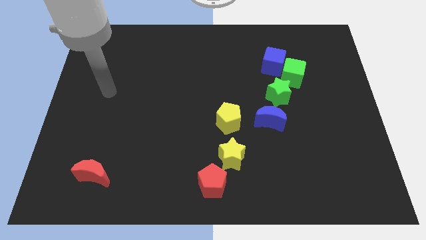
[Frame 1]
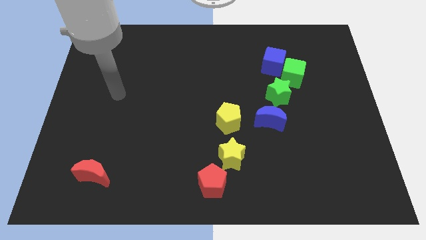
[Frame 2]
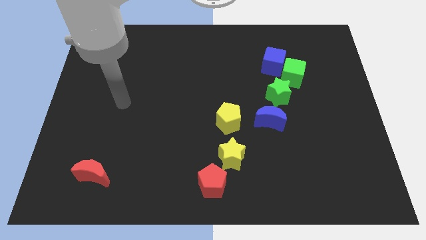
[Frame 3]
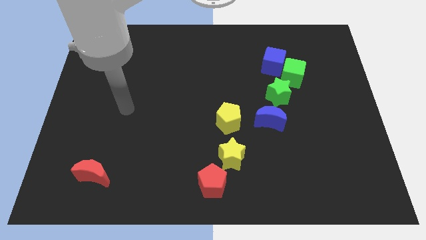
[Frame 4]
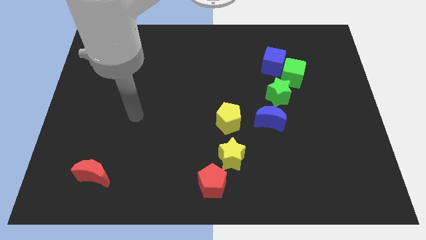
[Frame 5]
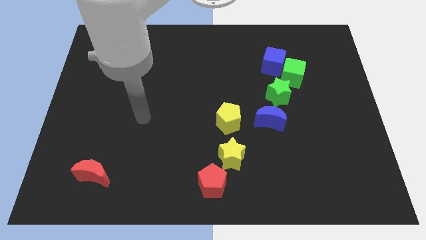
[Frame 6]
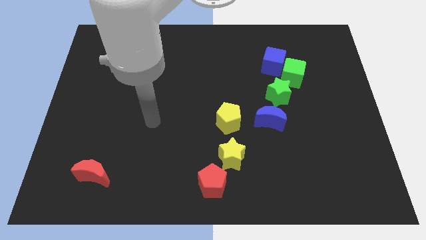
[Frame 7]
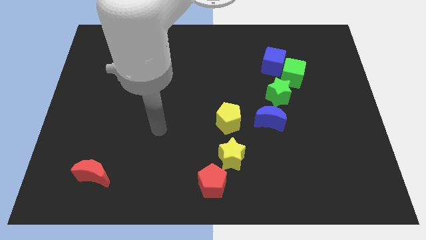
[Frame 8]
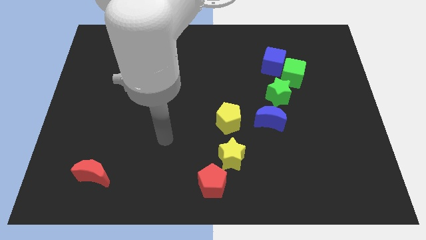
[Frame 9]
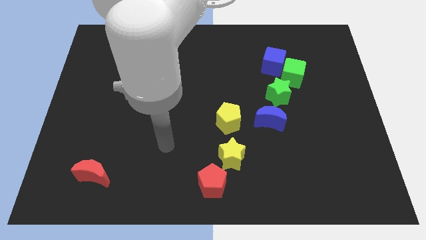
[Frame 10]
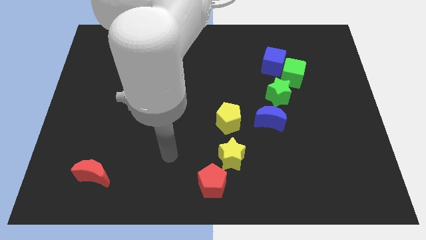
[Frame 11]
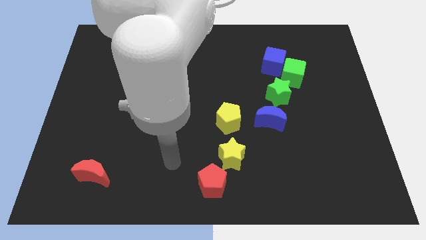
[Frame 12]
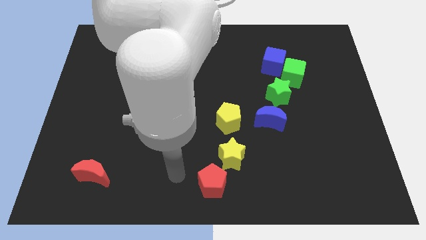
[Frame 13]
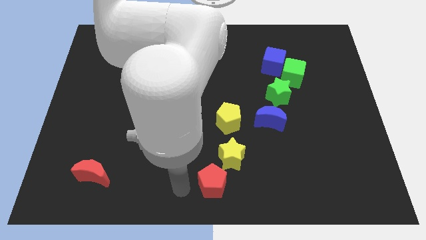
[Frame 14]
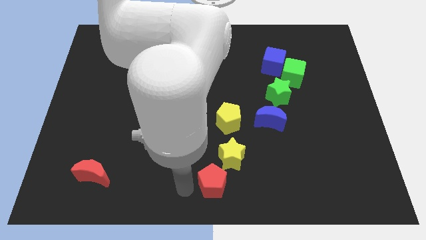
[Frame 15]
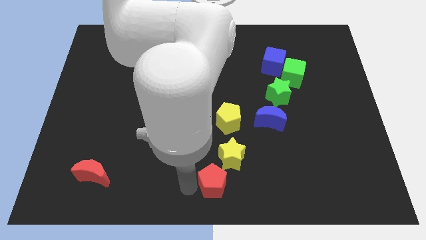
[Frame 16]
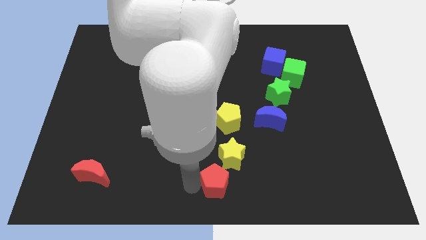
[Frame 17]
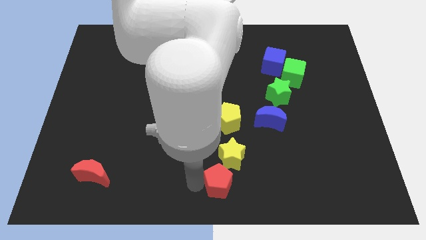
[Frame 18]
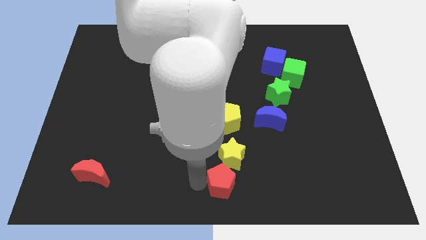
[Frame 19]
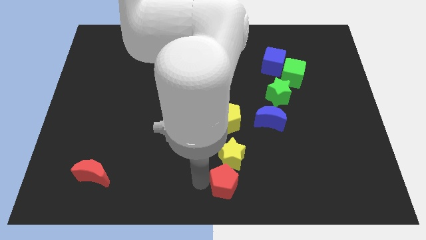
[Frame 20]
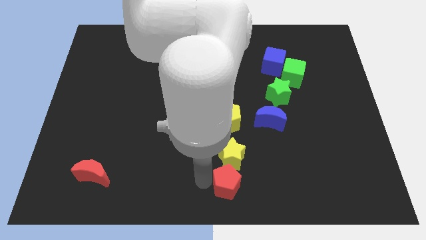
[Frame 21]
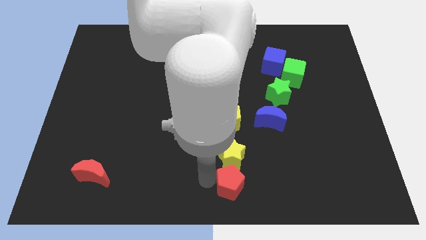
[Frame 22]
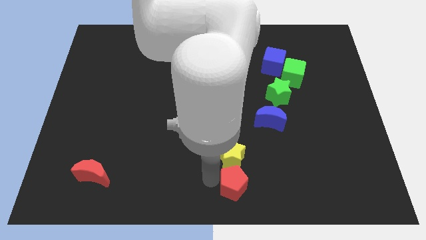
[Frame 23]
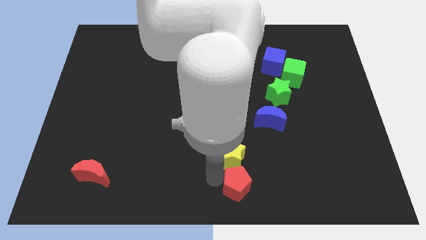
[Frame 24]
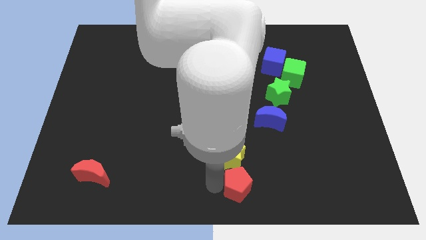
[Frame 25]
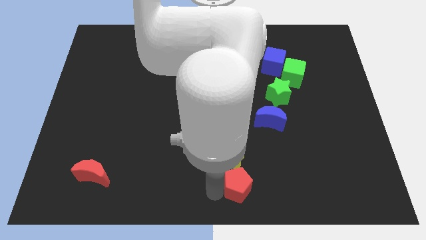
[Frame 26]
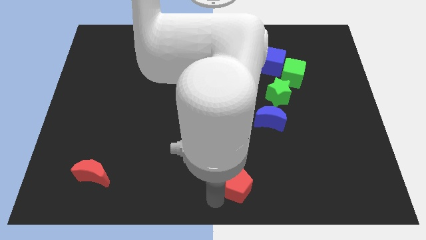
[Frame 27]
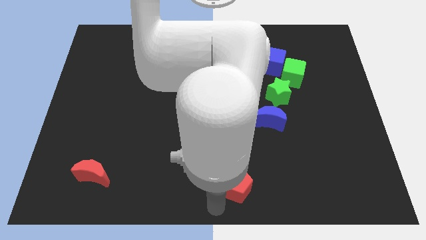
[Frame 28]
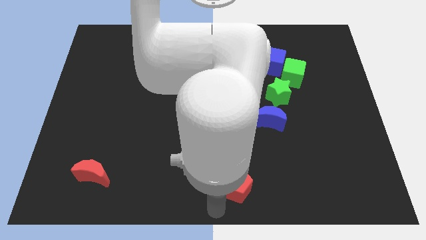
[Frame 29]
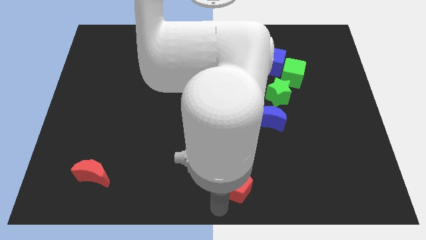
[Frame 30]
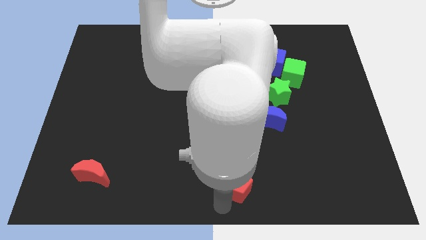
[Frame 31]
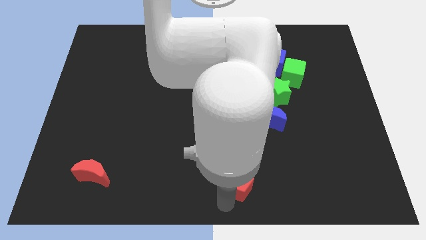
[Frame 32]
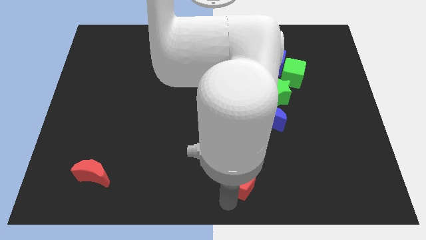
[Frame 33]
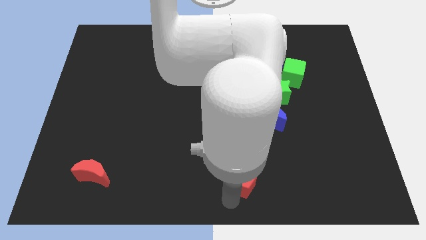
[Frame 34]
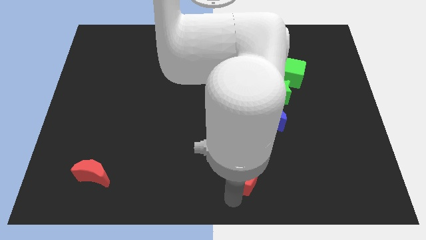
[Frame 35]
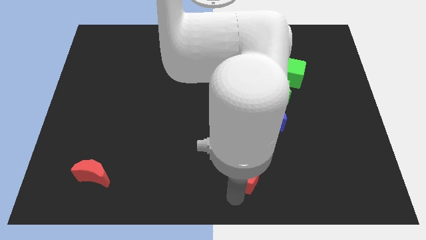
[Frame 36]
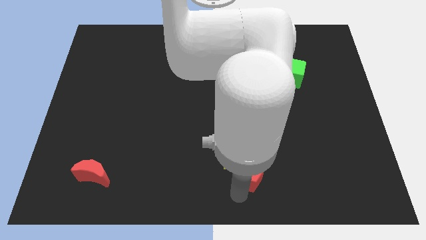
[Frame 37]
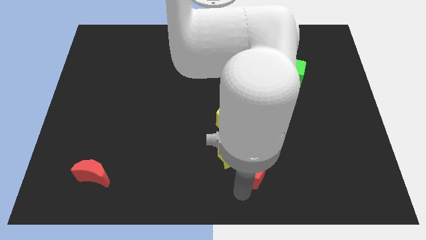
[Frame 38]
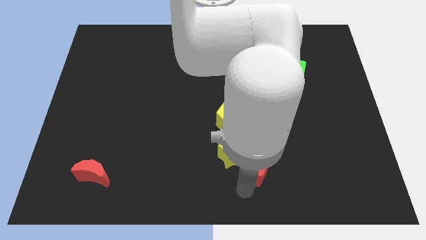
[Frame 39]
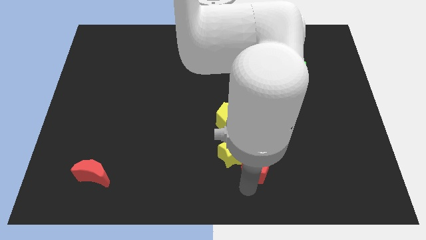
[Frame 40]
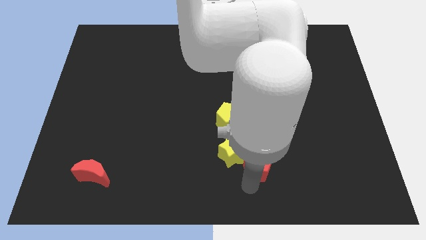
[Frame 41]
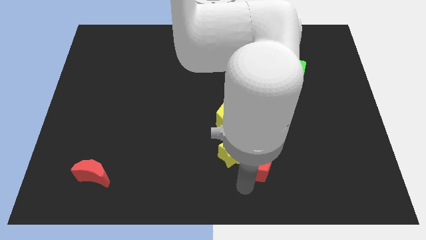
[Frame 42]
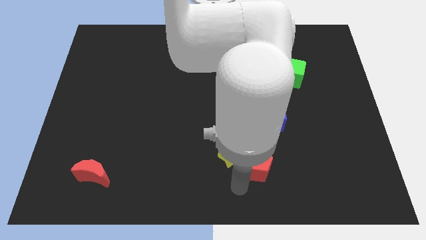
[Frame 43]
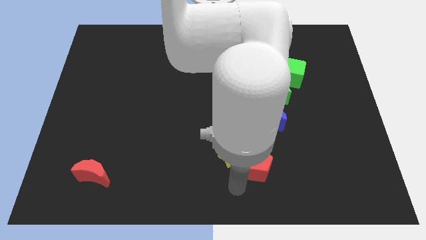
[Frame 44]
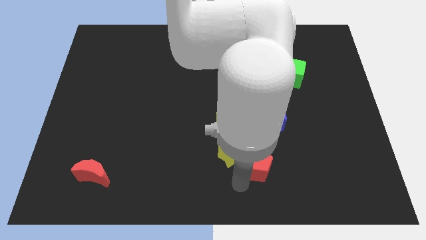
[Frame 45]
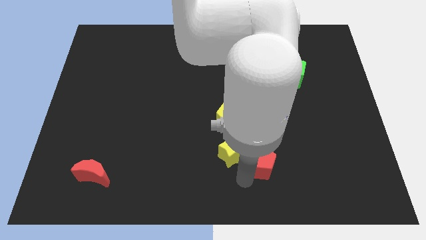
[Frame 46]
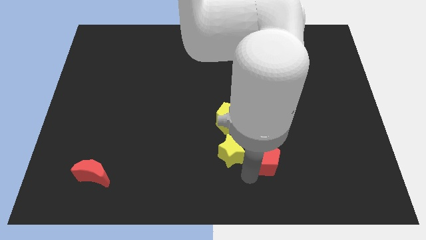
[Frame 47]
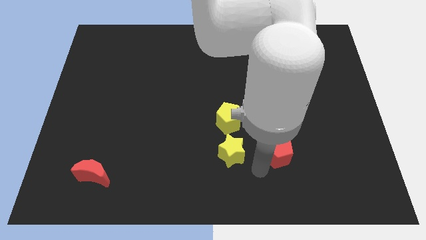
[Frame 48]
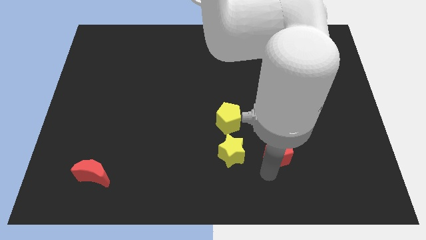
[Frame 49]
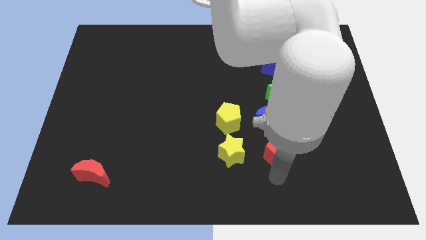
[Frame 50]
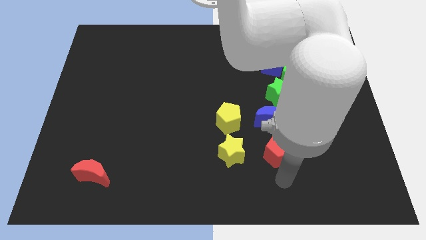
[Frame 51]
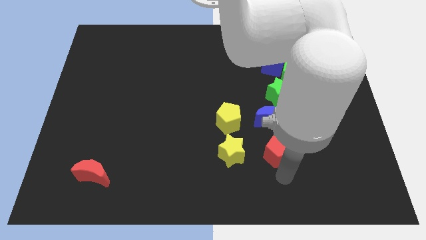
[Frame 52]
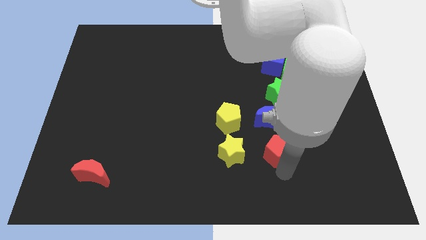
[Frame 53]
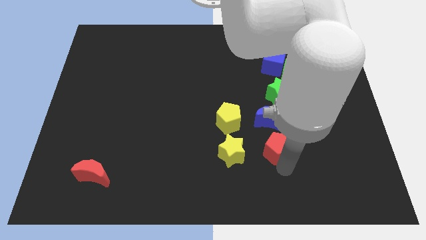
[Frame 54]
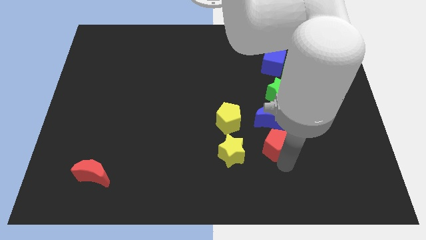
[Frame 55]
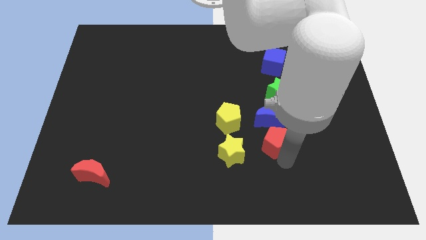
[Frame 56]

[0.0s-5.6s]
move the red pentagon close to the blue moon

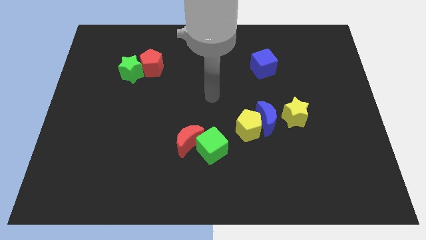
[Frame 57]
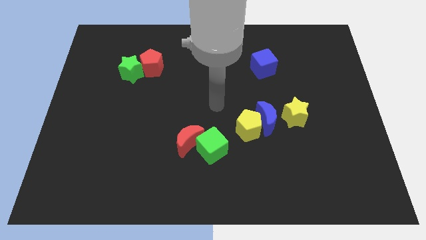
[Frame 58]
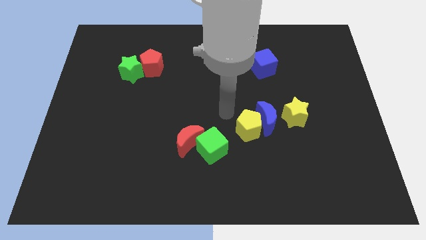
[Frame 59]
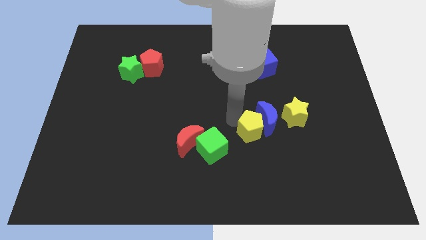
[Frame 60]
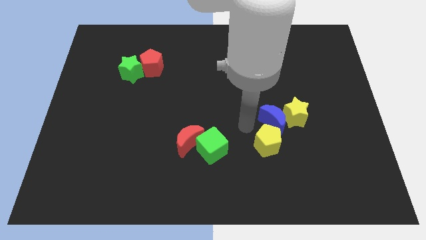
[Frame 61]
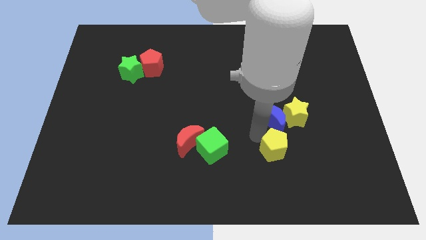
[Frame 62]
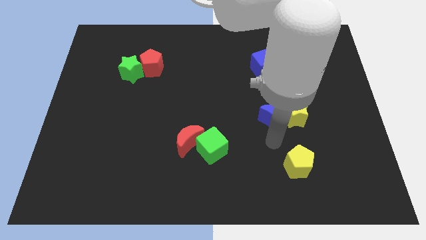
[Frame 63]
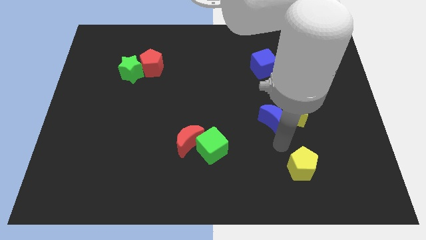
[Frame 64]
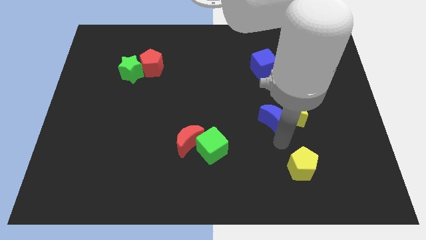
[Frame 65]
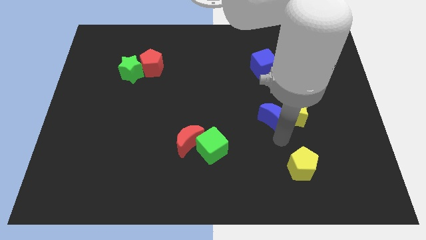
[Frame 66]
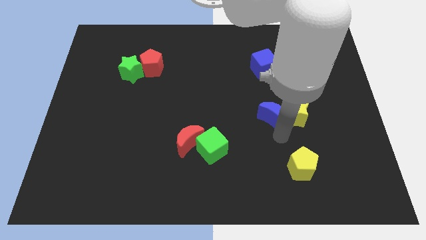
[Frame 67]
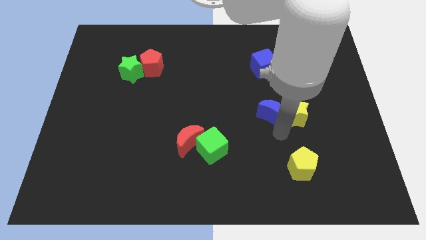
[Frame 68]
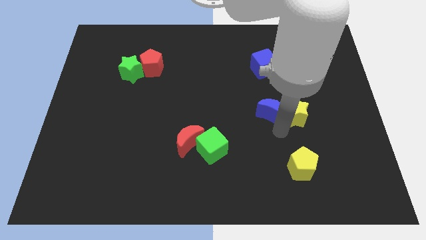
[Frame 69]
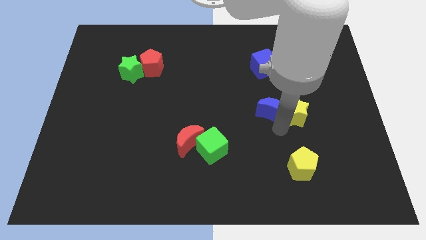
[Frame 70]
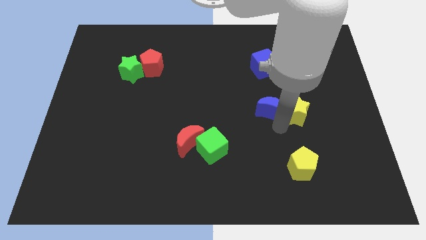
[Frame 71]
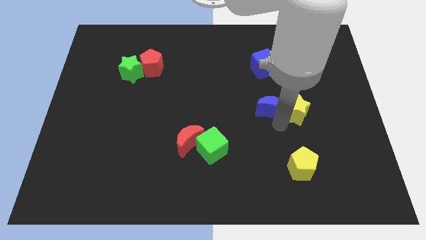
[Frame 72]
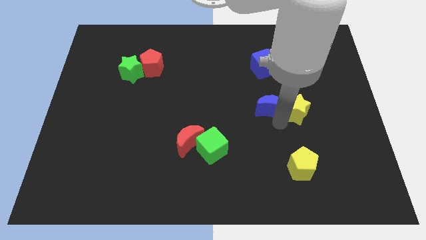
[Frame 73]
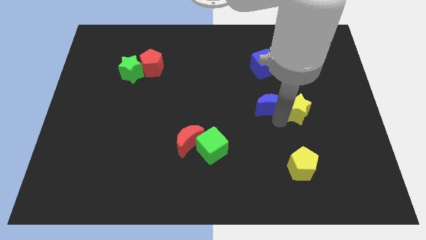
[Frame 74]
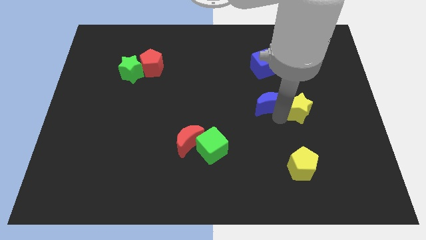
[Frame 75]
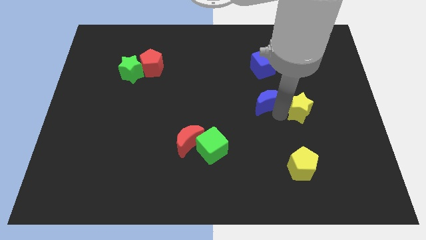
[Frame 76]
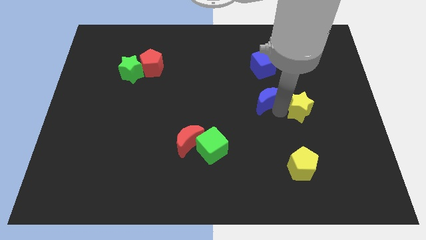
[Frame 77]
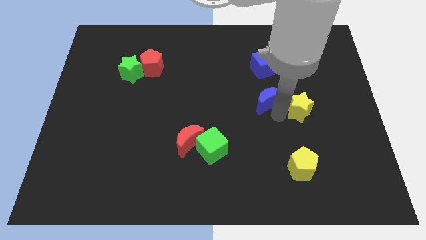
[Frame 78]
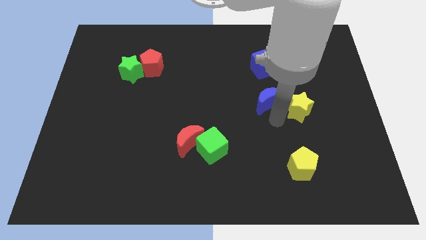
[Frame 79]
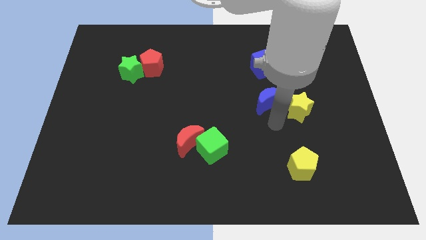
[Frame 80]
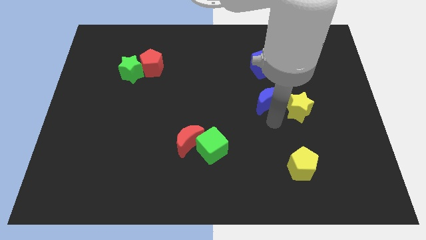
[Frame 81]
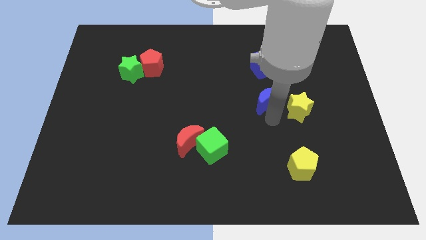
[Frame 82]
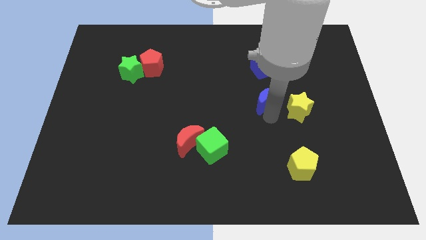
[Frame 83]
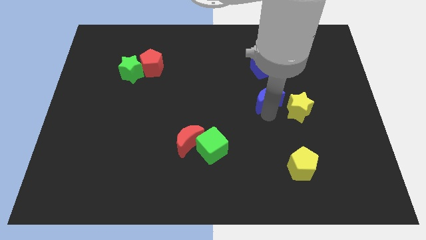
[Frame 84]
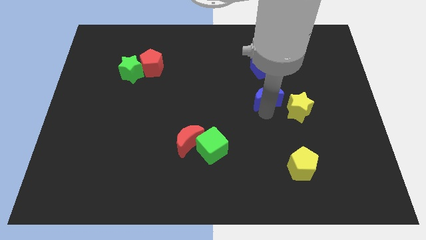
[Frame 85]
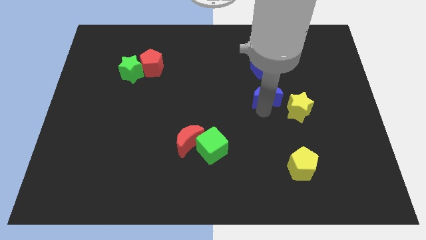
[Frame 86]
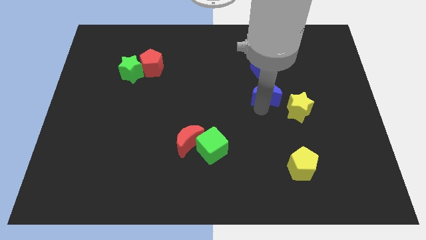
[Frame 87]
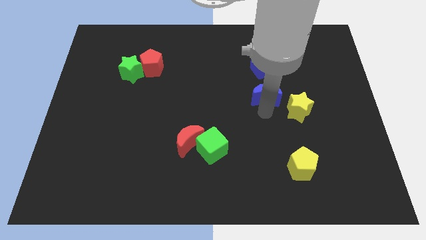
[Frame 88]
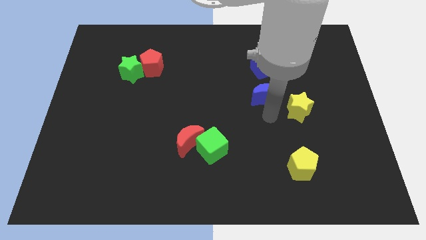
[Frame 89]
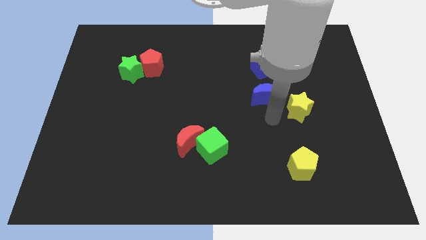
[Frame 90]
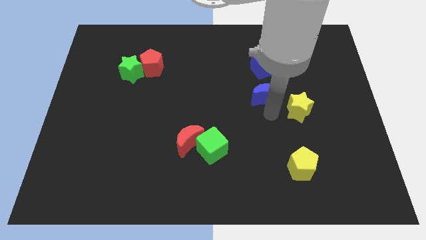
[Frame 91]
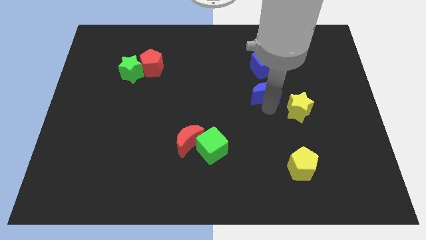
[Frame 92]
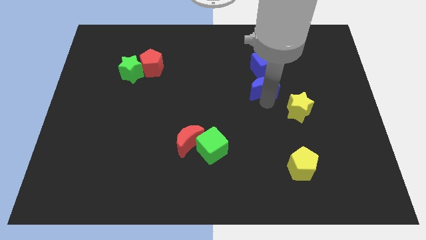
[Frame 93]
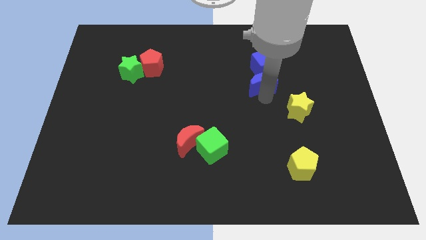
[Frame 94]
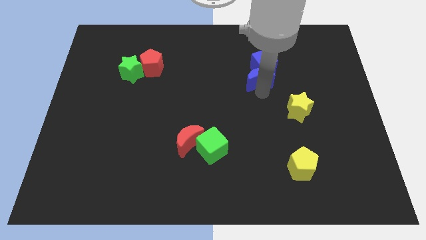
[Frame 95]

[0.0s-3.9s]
move the blue moon to the blue cube
